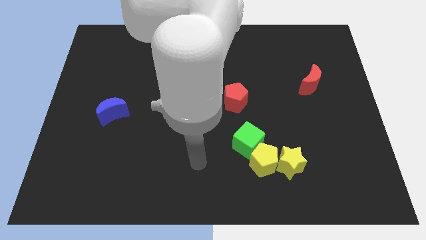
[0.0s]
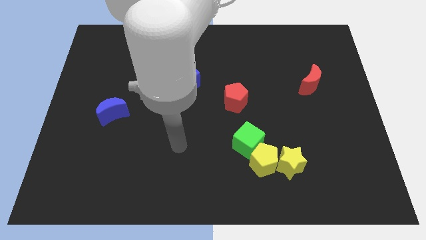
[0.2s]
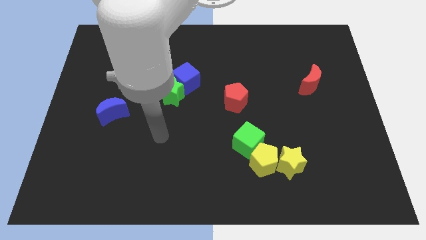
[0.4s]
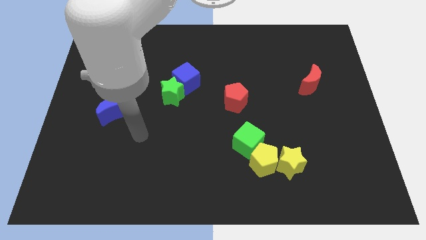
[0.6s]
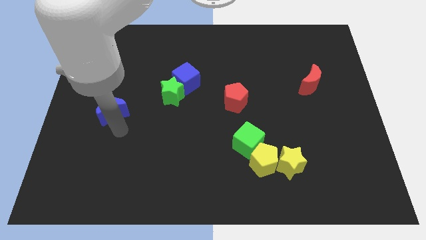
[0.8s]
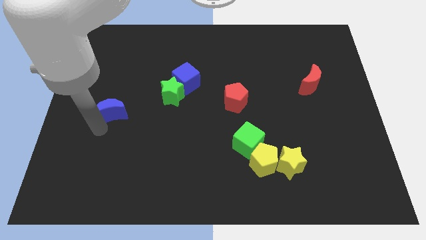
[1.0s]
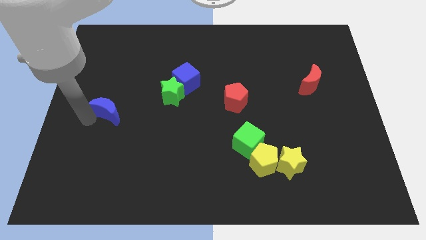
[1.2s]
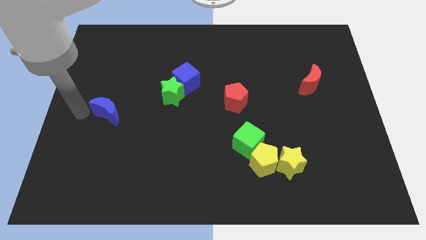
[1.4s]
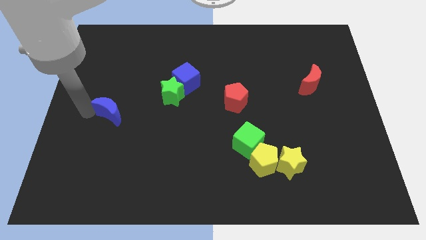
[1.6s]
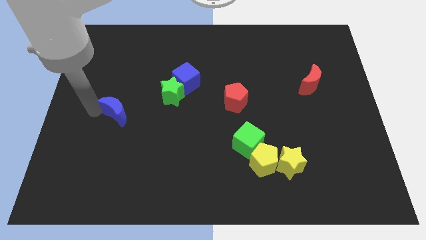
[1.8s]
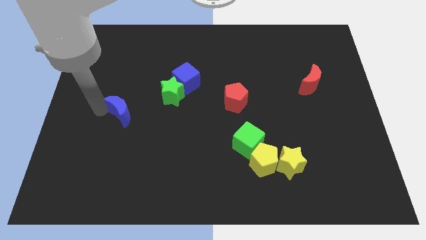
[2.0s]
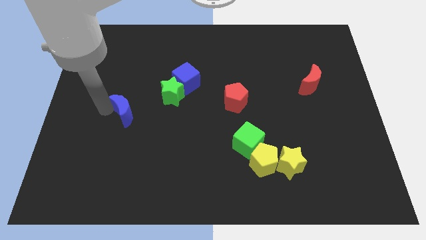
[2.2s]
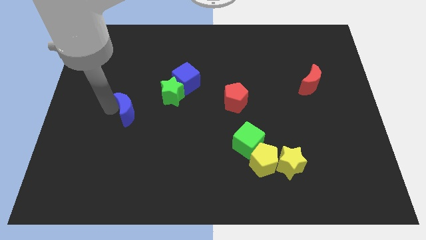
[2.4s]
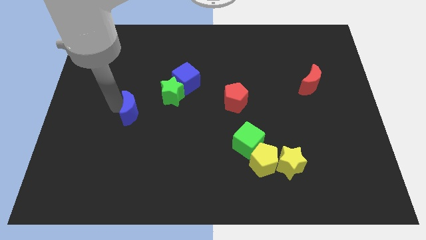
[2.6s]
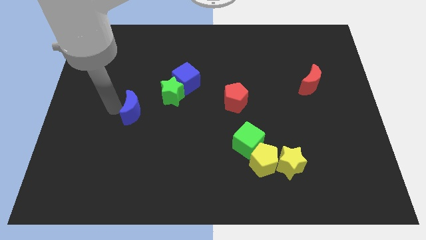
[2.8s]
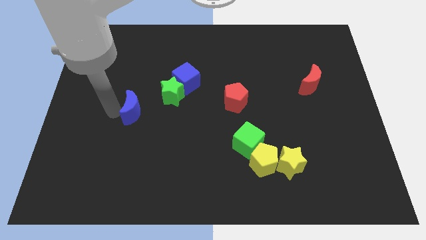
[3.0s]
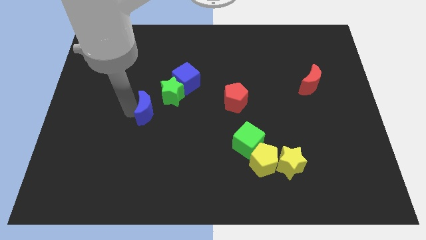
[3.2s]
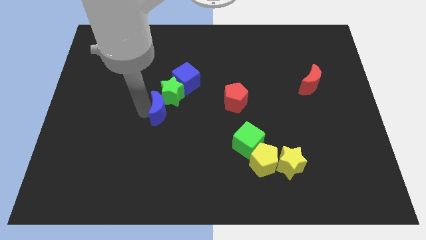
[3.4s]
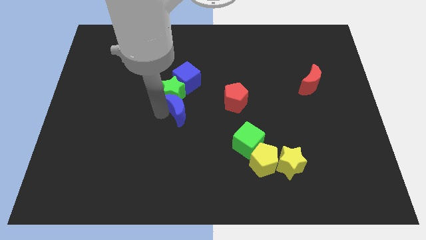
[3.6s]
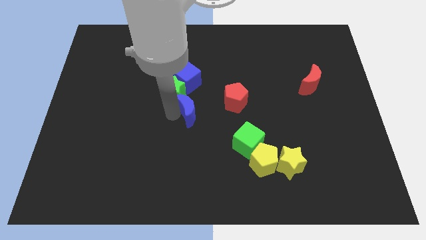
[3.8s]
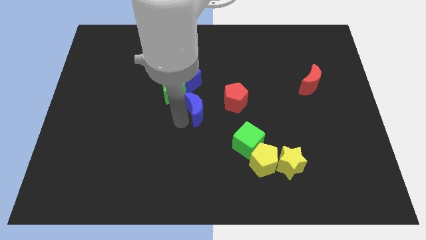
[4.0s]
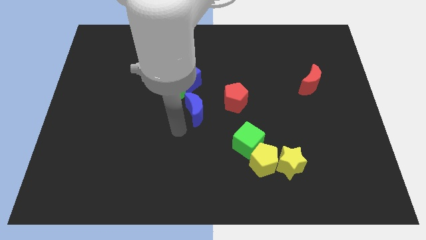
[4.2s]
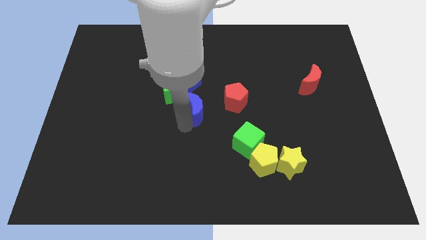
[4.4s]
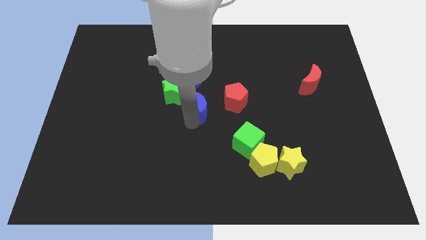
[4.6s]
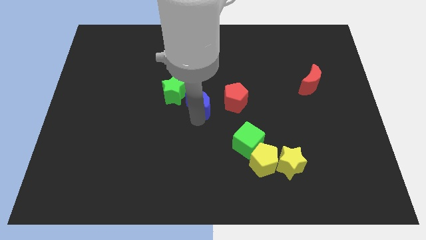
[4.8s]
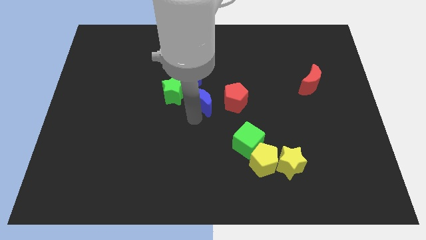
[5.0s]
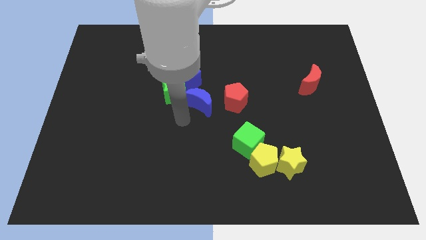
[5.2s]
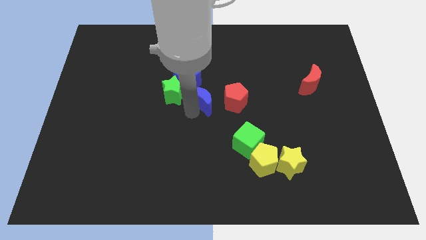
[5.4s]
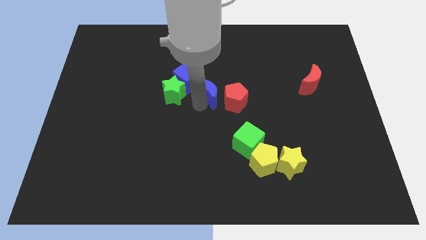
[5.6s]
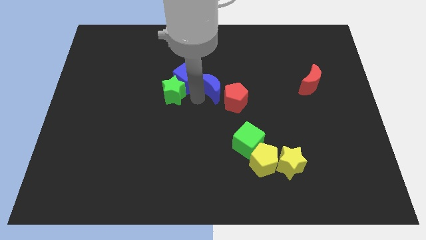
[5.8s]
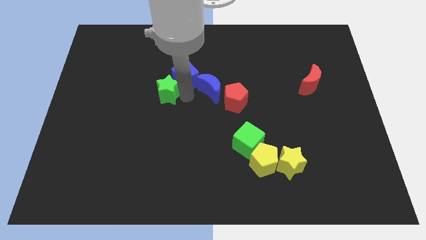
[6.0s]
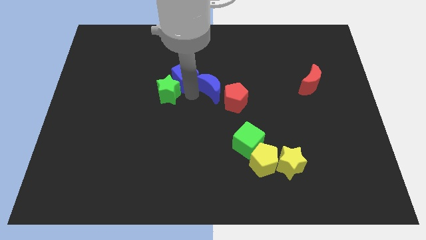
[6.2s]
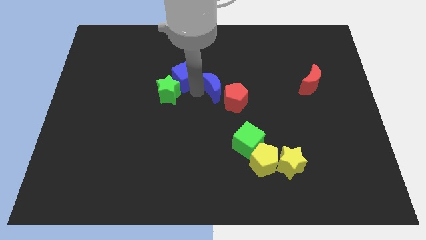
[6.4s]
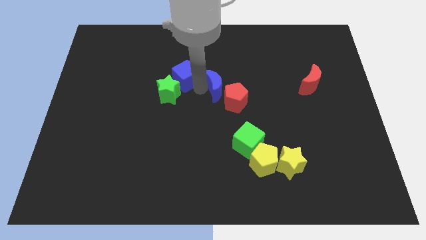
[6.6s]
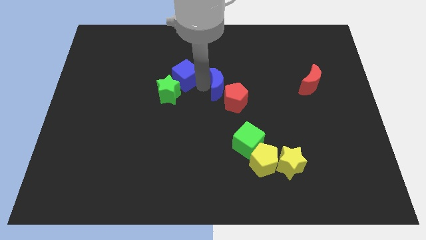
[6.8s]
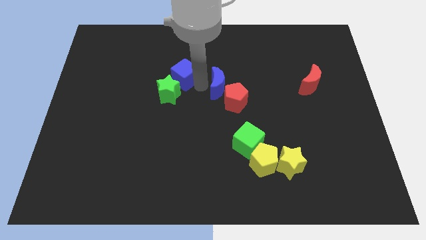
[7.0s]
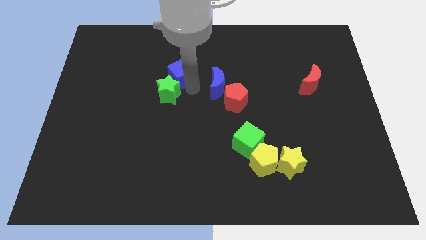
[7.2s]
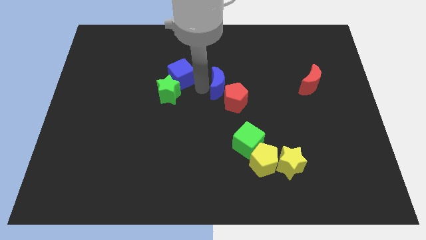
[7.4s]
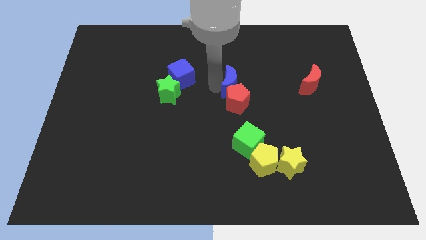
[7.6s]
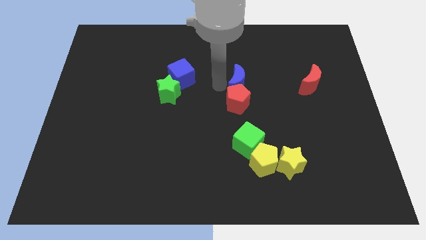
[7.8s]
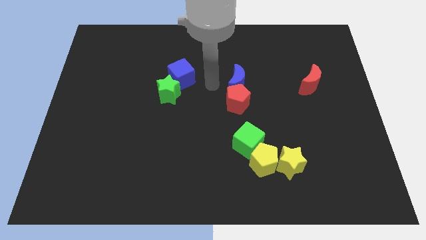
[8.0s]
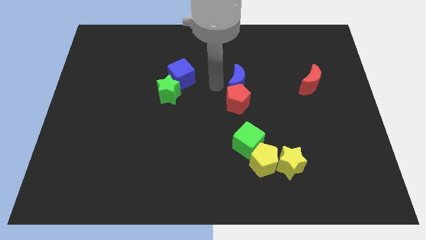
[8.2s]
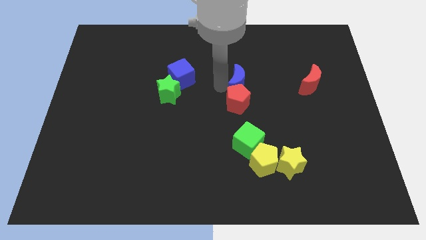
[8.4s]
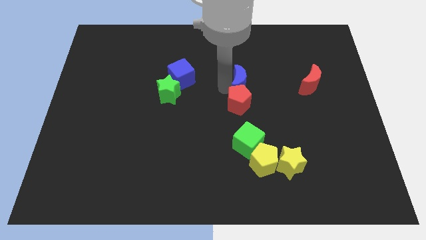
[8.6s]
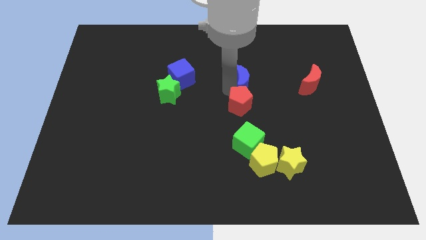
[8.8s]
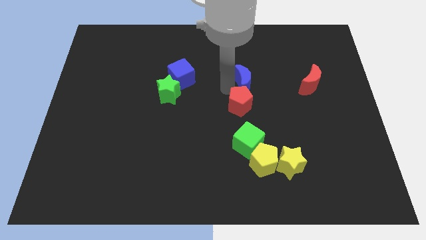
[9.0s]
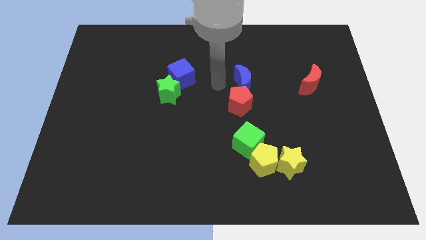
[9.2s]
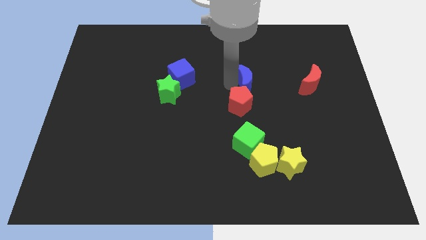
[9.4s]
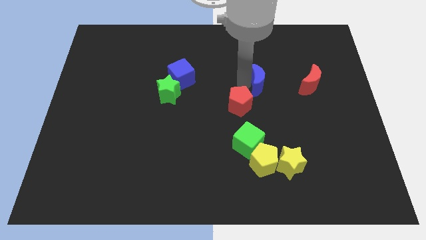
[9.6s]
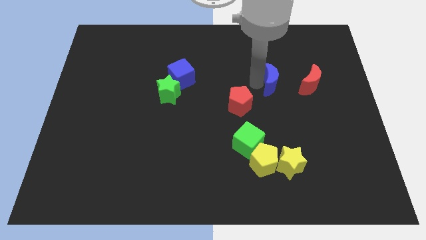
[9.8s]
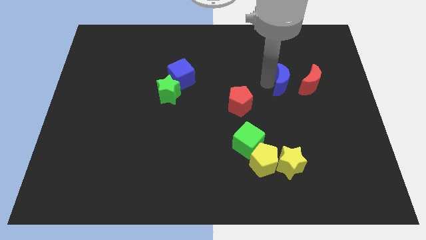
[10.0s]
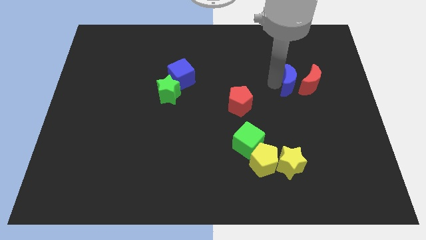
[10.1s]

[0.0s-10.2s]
move the blue moon close to the red moon

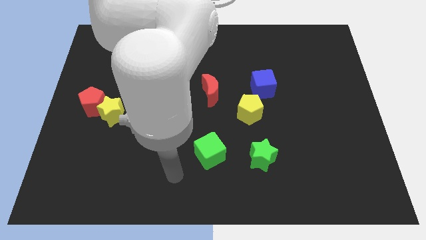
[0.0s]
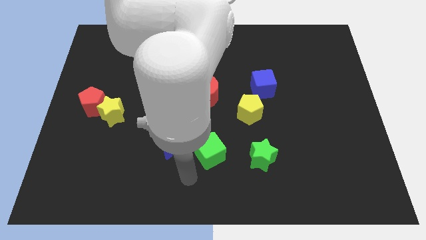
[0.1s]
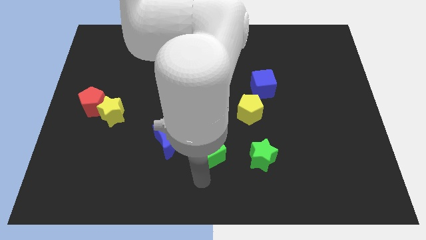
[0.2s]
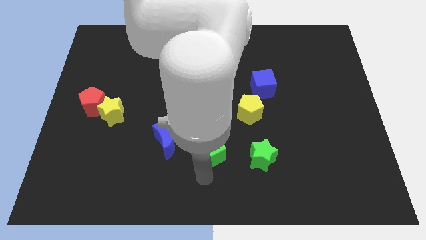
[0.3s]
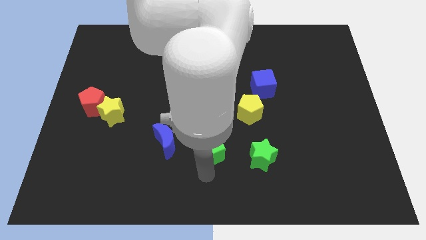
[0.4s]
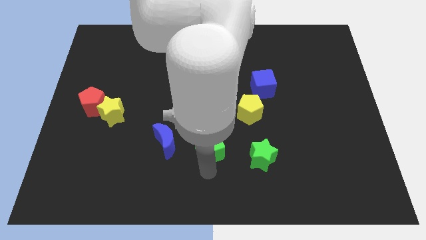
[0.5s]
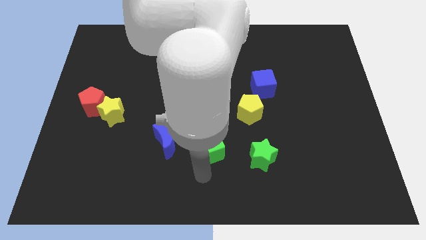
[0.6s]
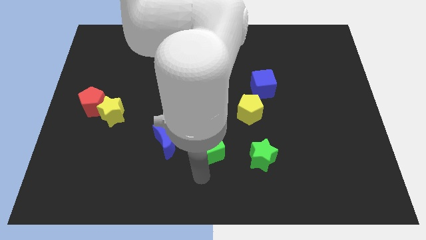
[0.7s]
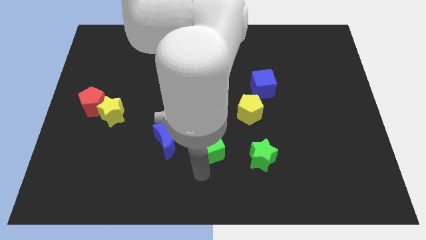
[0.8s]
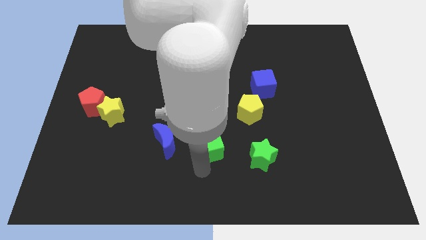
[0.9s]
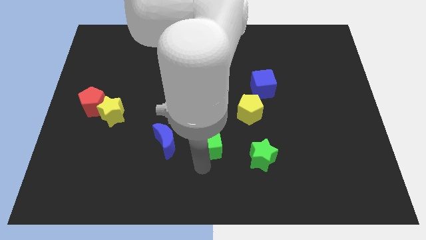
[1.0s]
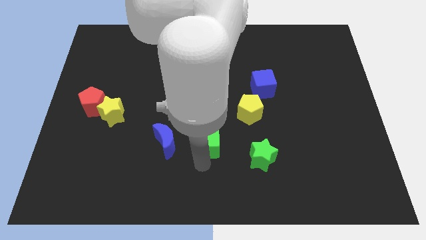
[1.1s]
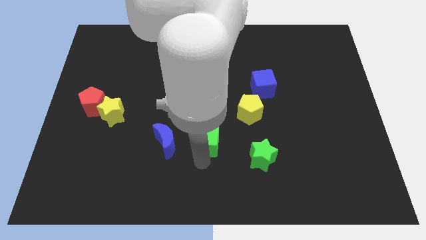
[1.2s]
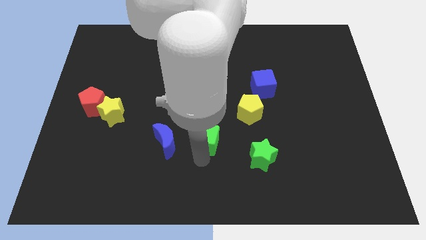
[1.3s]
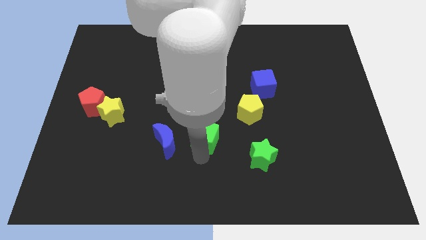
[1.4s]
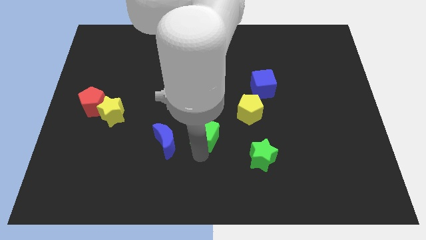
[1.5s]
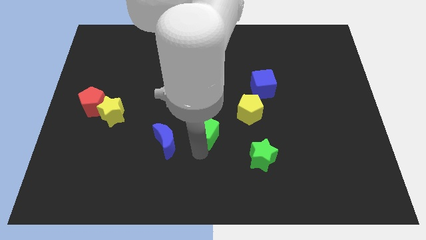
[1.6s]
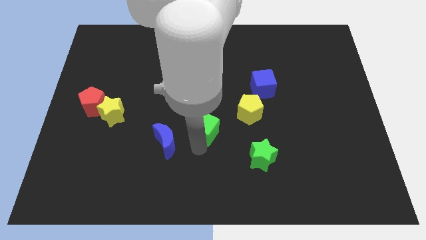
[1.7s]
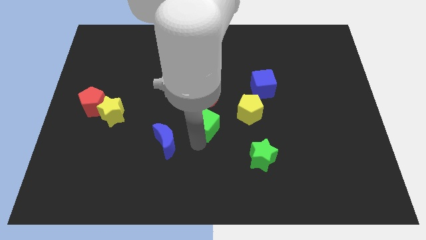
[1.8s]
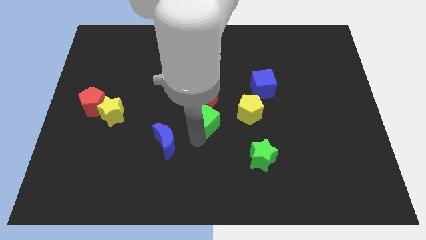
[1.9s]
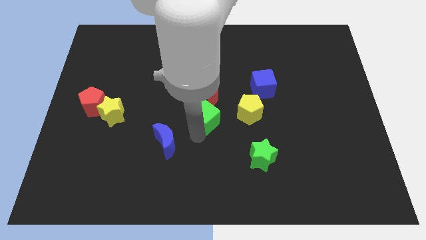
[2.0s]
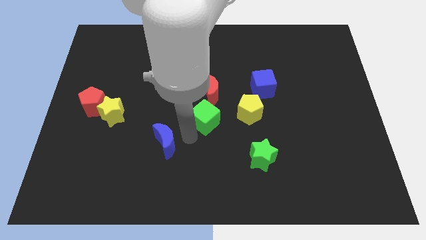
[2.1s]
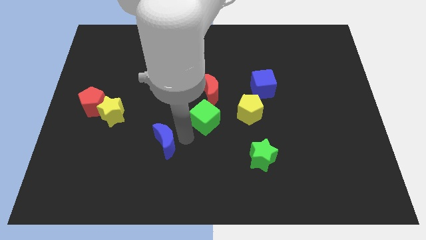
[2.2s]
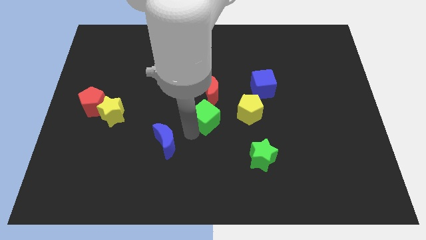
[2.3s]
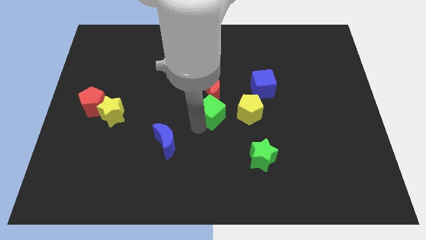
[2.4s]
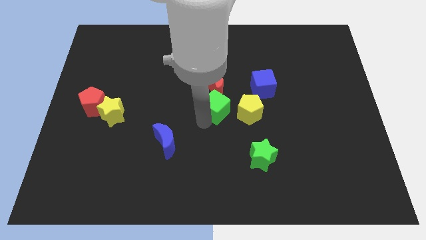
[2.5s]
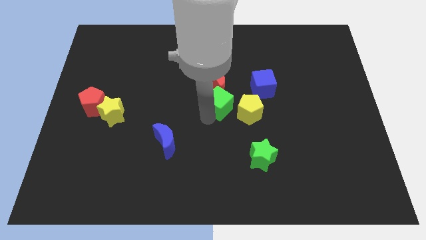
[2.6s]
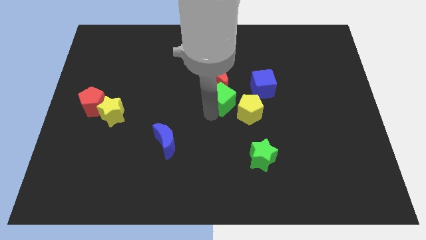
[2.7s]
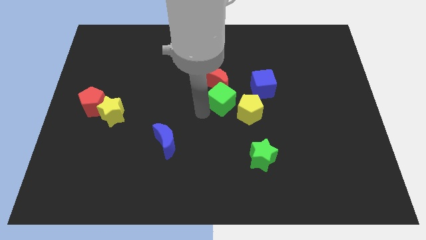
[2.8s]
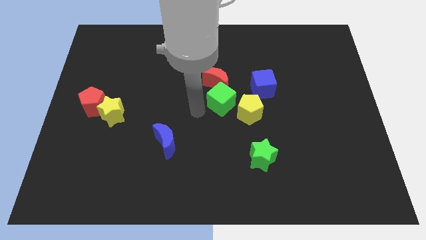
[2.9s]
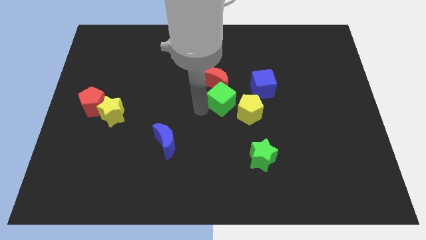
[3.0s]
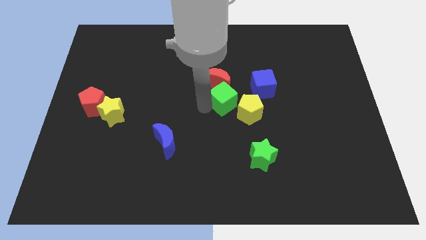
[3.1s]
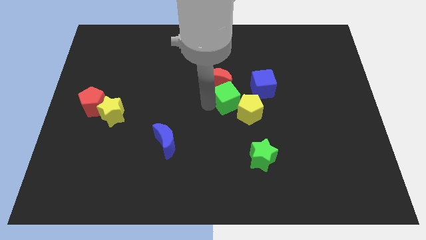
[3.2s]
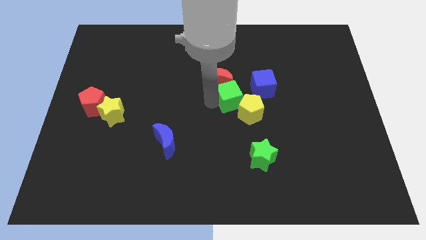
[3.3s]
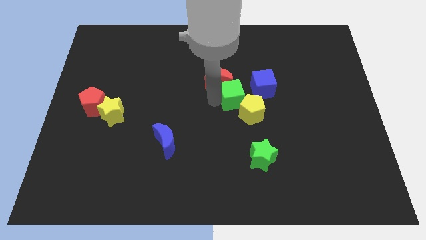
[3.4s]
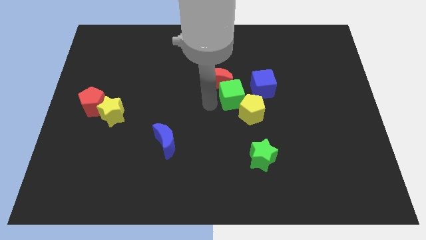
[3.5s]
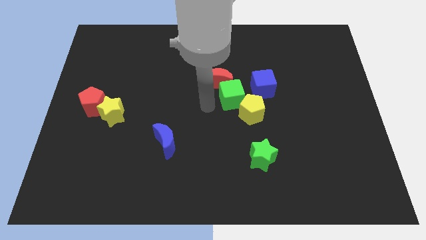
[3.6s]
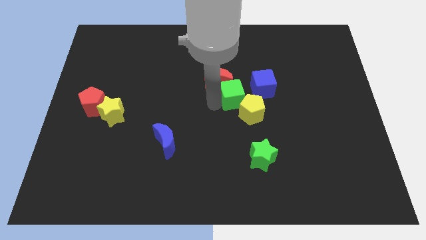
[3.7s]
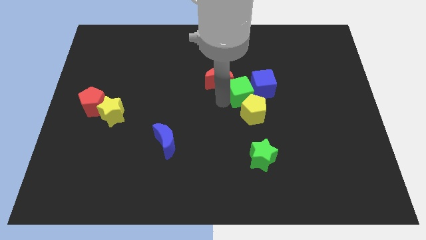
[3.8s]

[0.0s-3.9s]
push the green cube to the blue cube
